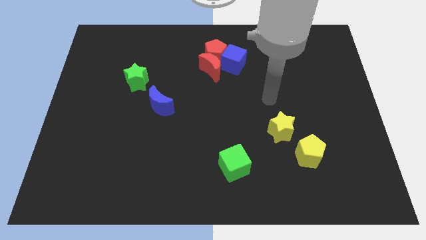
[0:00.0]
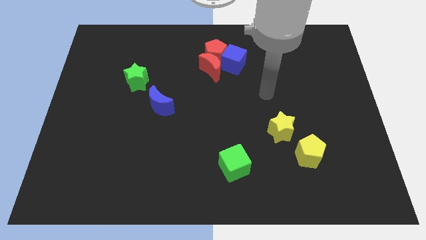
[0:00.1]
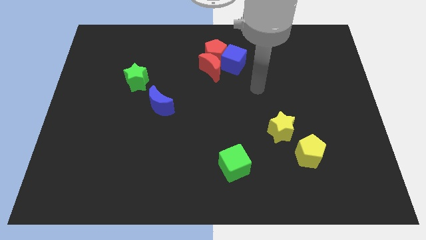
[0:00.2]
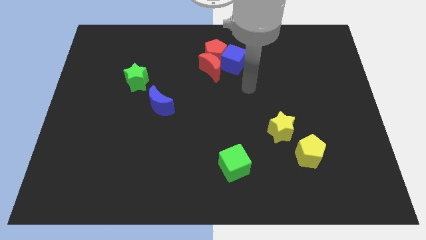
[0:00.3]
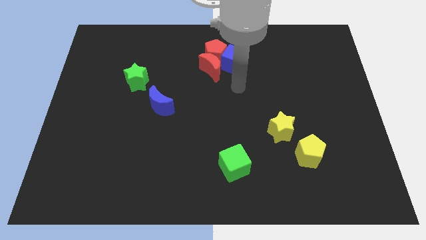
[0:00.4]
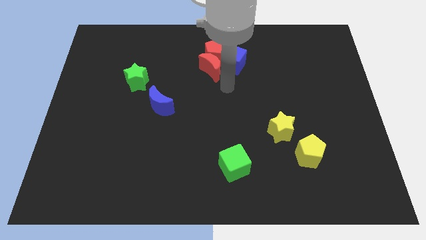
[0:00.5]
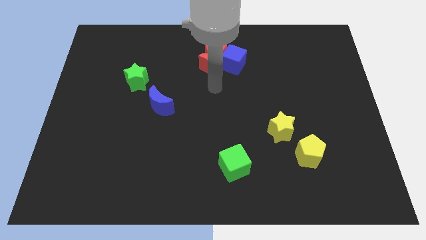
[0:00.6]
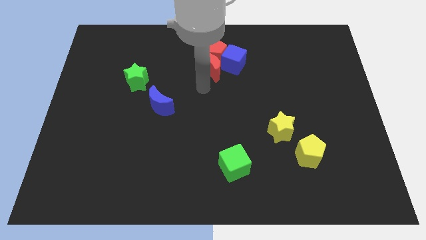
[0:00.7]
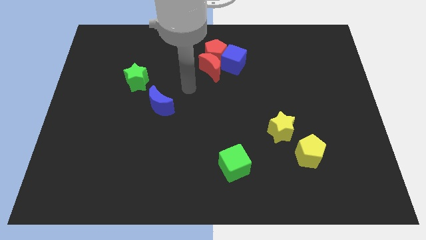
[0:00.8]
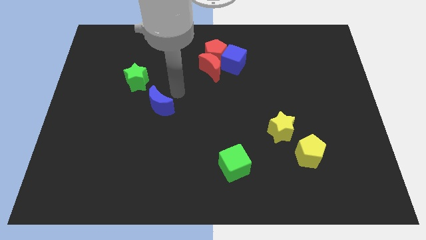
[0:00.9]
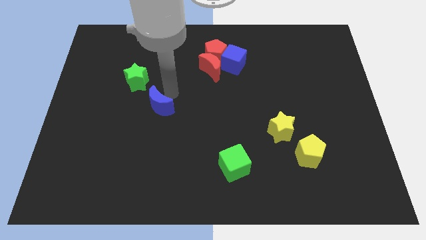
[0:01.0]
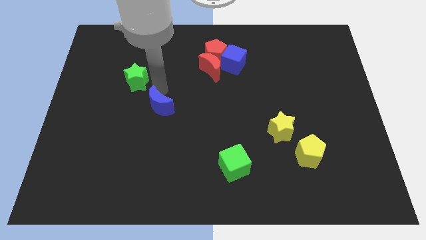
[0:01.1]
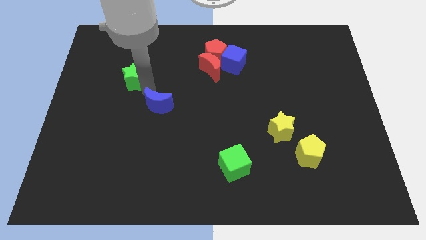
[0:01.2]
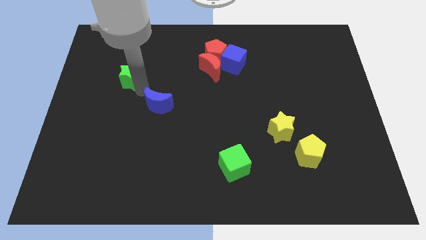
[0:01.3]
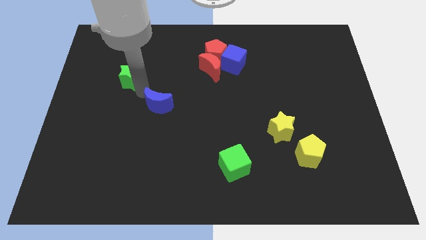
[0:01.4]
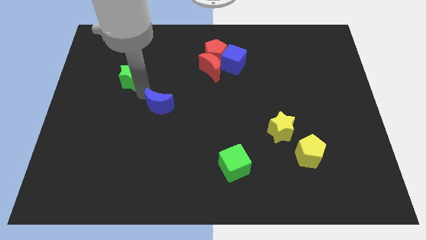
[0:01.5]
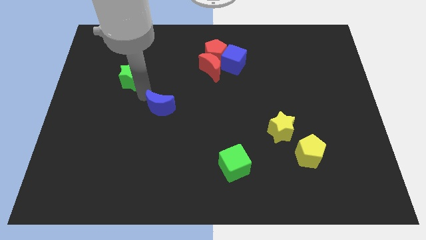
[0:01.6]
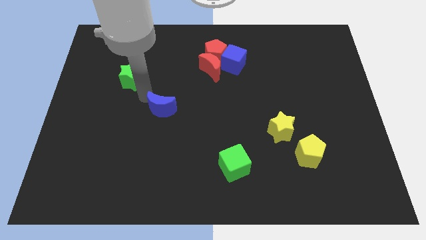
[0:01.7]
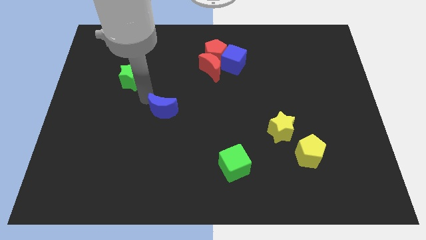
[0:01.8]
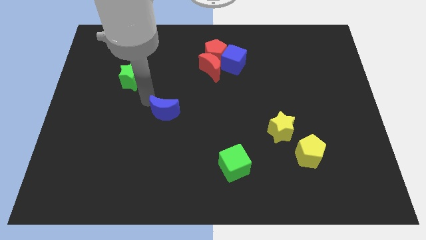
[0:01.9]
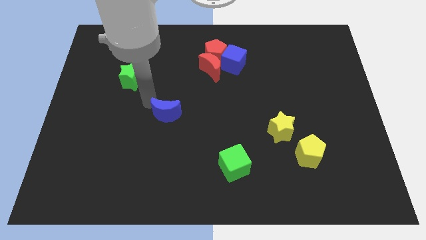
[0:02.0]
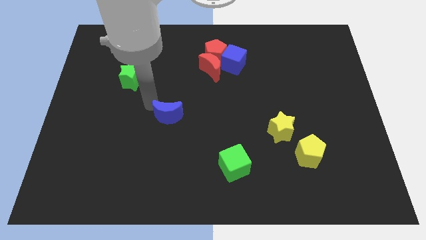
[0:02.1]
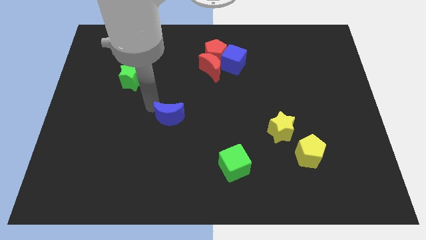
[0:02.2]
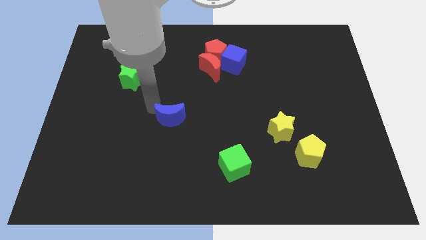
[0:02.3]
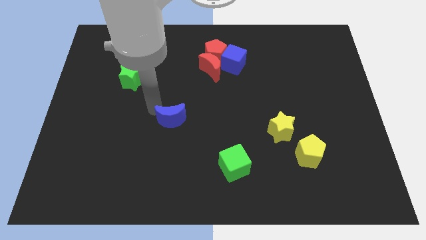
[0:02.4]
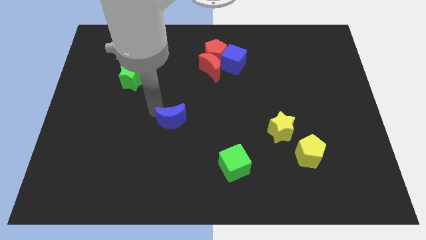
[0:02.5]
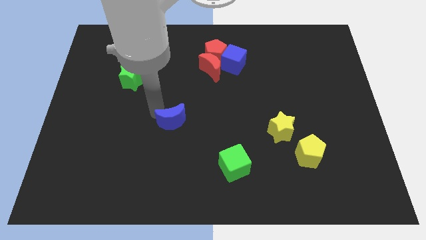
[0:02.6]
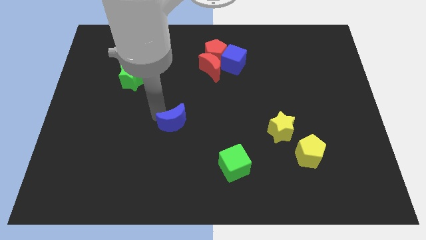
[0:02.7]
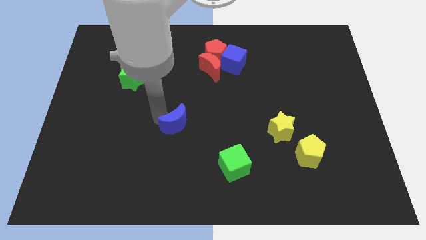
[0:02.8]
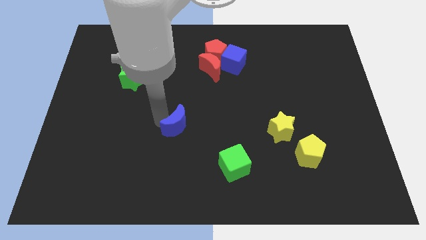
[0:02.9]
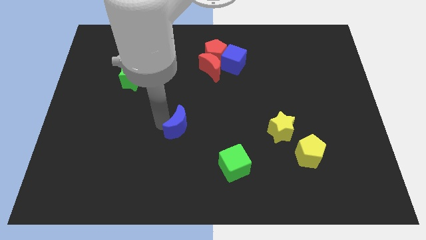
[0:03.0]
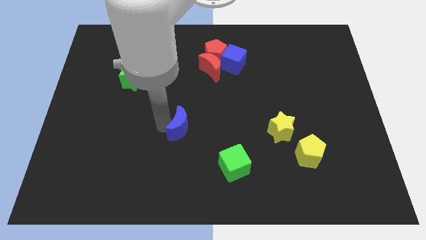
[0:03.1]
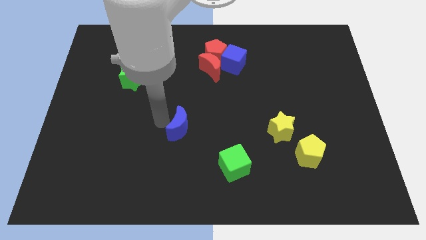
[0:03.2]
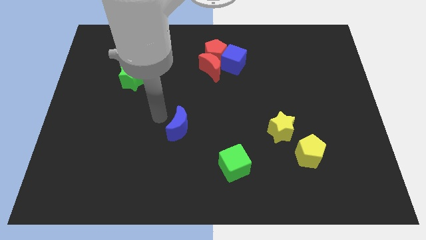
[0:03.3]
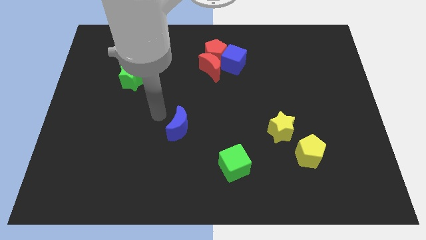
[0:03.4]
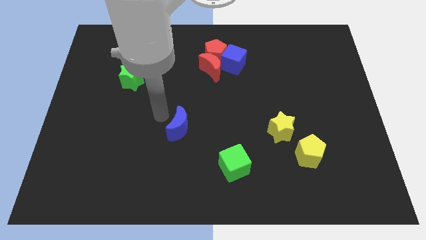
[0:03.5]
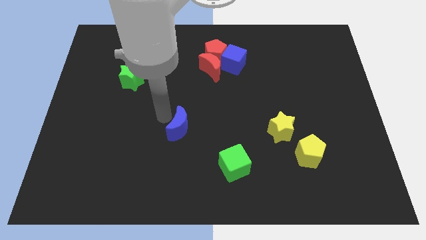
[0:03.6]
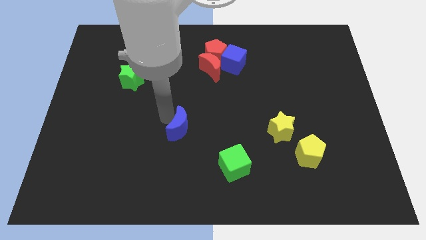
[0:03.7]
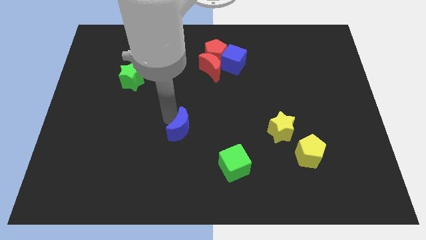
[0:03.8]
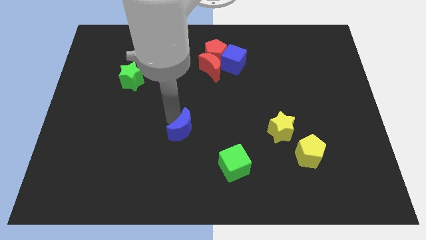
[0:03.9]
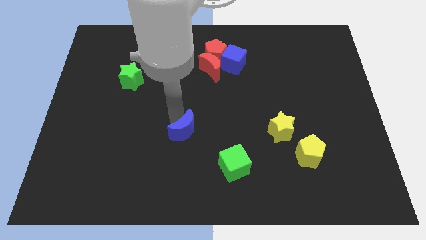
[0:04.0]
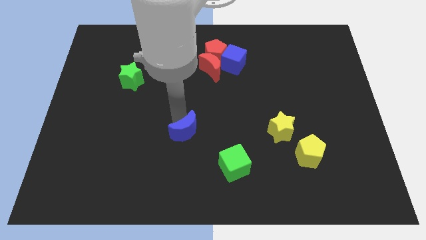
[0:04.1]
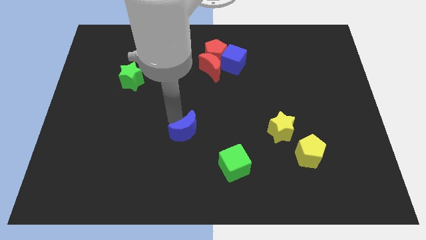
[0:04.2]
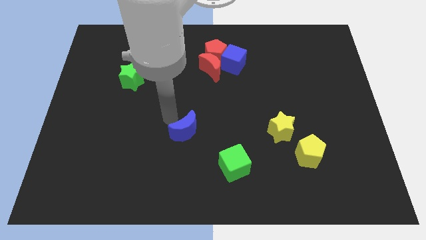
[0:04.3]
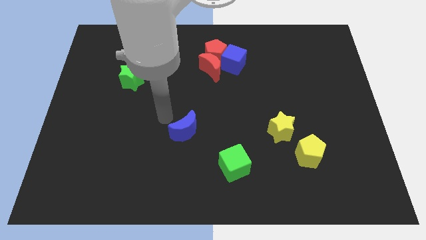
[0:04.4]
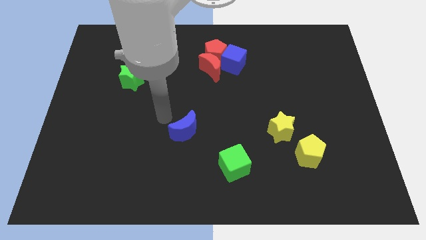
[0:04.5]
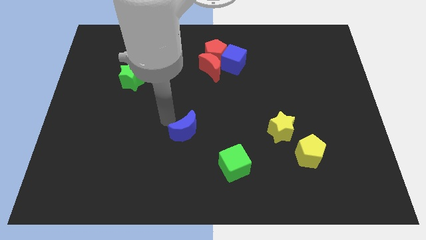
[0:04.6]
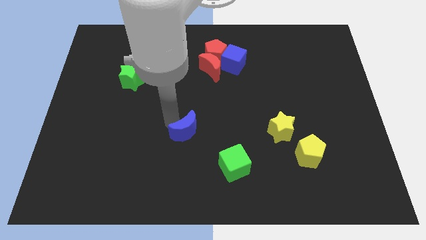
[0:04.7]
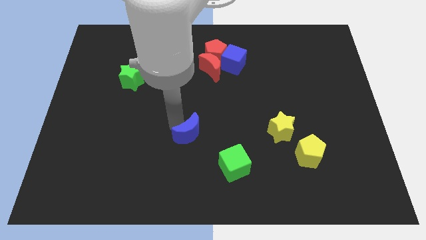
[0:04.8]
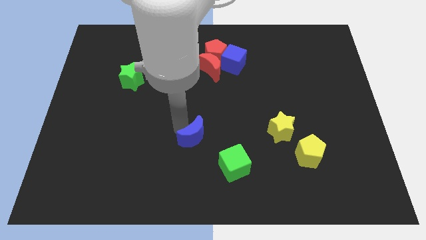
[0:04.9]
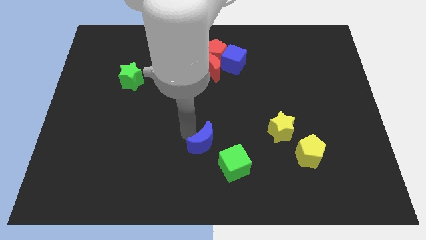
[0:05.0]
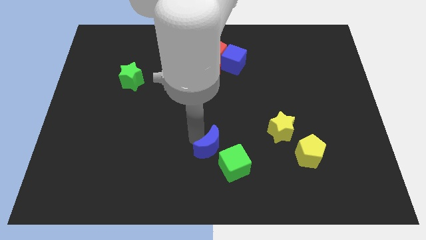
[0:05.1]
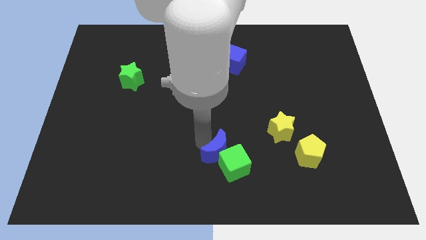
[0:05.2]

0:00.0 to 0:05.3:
push the blue moon to the green cube

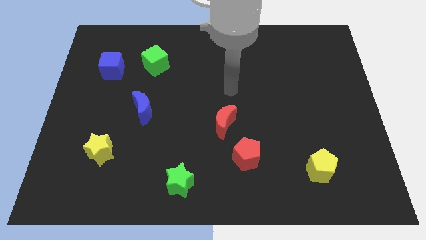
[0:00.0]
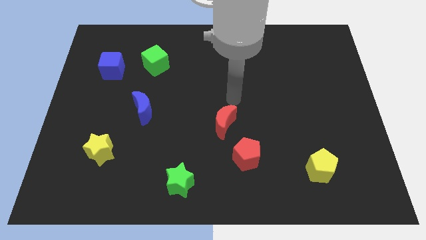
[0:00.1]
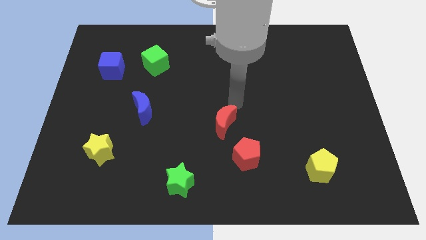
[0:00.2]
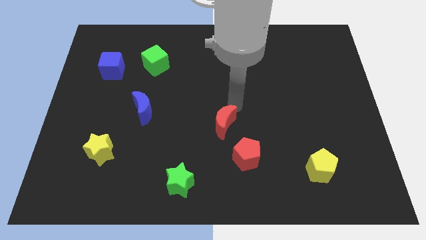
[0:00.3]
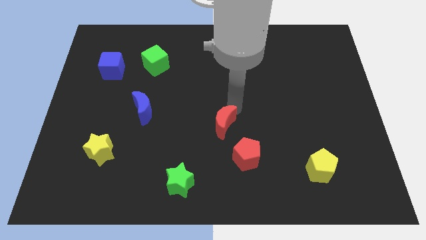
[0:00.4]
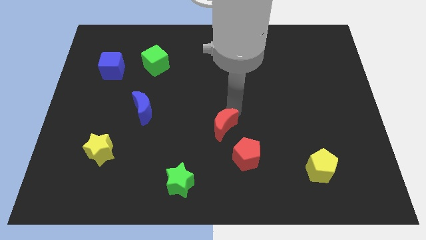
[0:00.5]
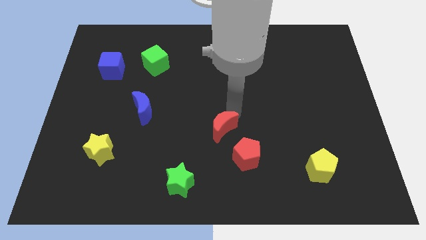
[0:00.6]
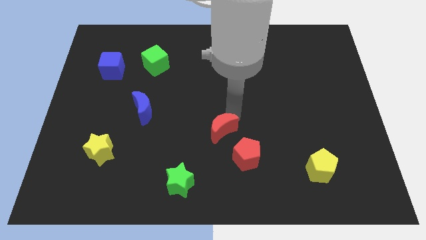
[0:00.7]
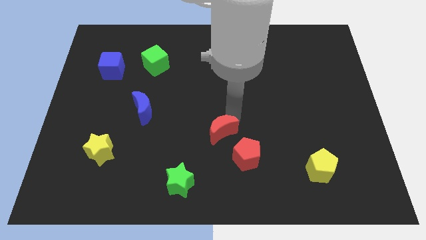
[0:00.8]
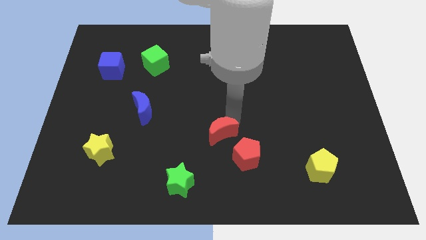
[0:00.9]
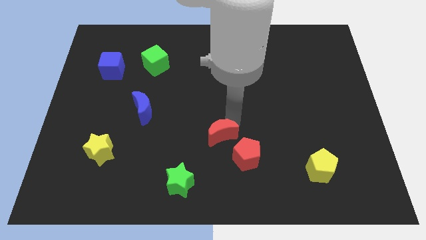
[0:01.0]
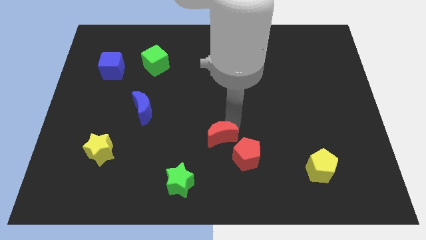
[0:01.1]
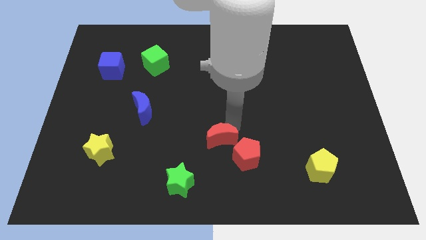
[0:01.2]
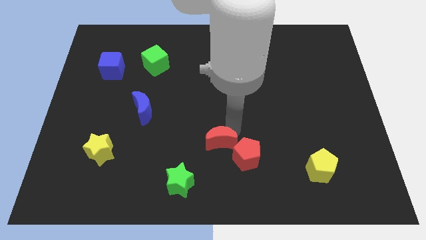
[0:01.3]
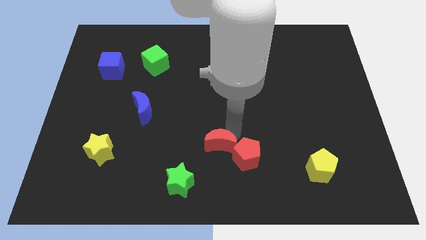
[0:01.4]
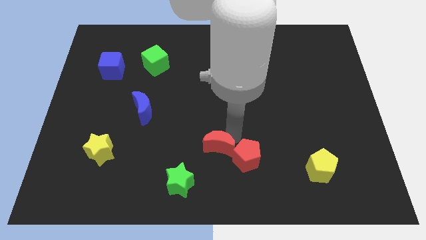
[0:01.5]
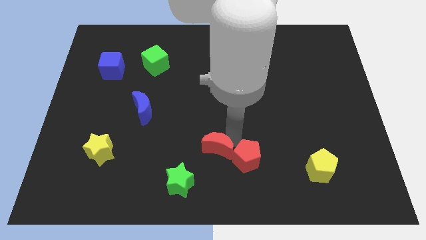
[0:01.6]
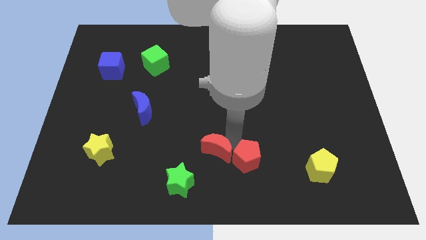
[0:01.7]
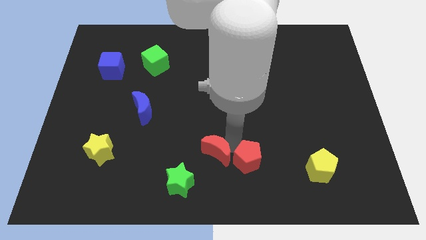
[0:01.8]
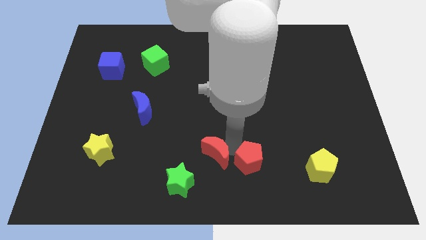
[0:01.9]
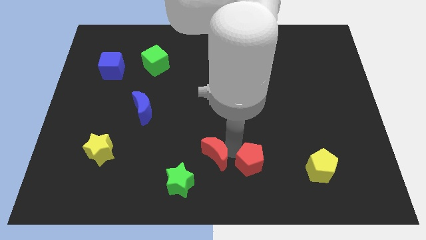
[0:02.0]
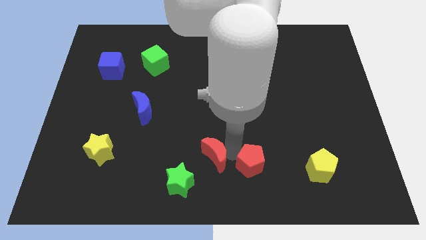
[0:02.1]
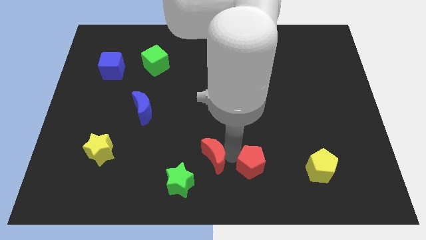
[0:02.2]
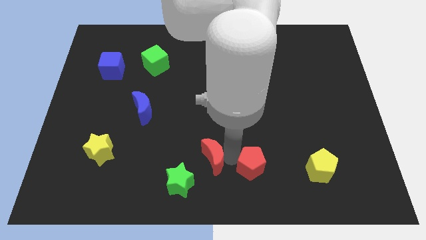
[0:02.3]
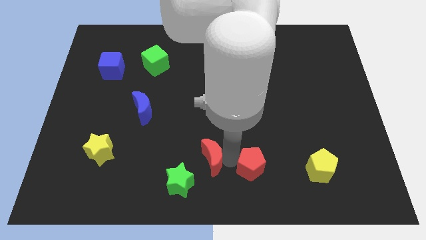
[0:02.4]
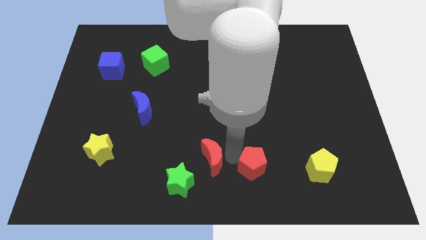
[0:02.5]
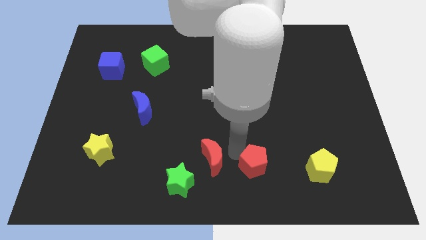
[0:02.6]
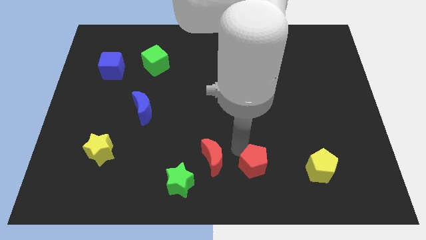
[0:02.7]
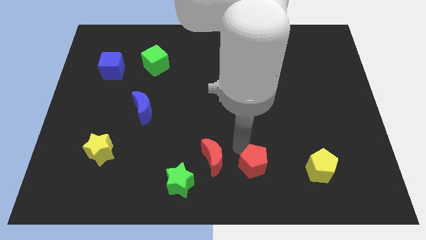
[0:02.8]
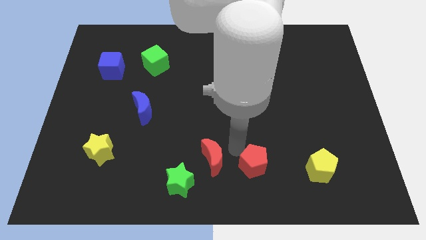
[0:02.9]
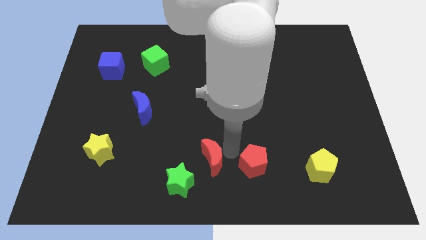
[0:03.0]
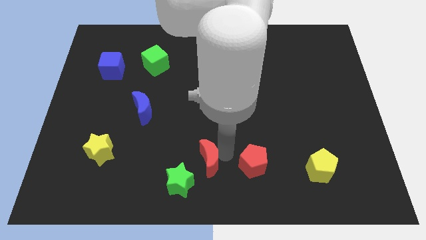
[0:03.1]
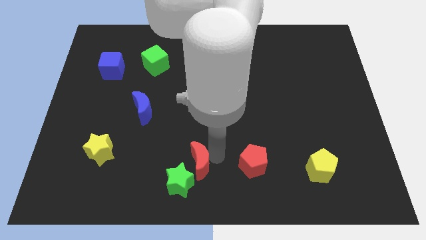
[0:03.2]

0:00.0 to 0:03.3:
push the red moon close to the green star
